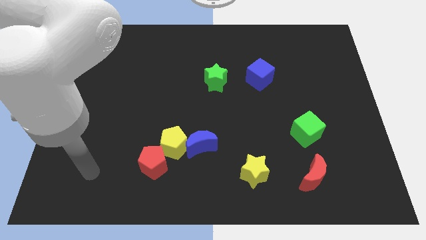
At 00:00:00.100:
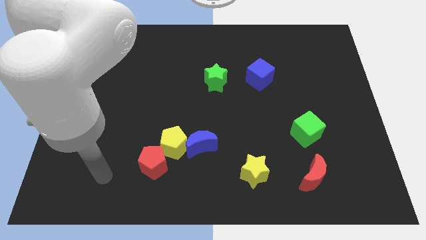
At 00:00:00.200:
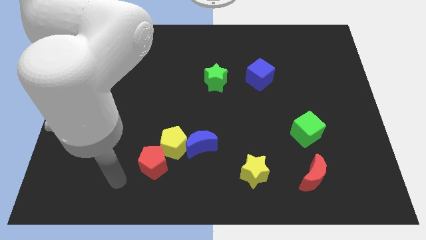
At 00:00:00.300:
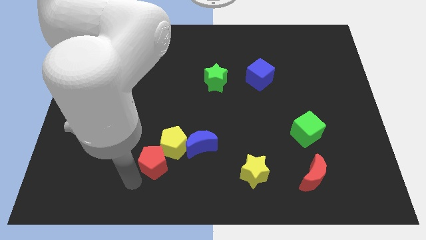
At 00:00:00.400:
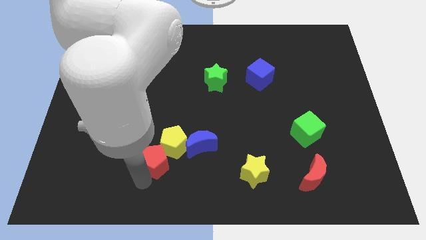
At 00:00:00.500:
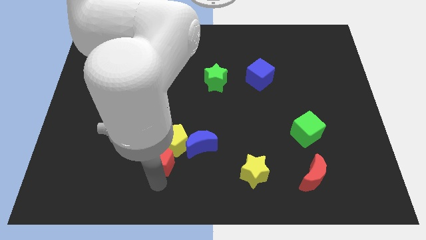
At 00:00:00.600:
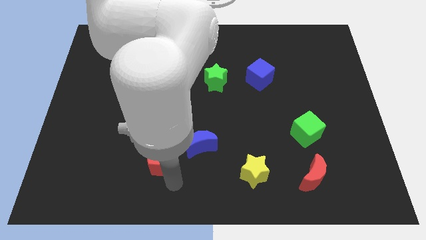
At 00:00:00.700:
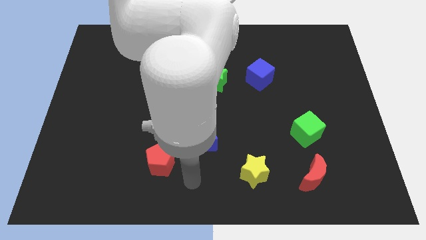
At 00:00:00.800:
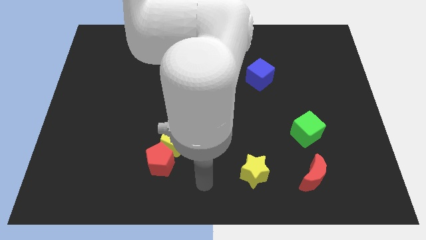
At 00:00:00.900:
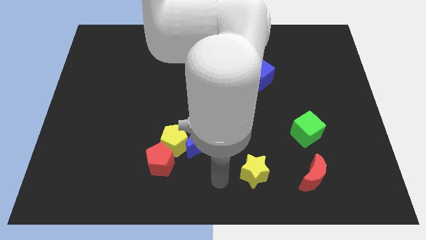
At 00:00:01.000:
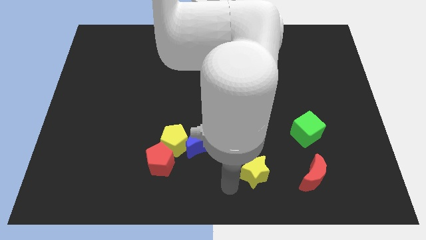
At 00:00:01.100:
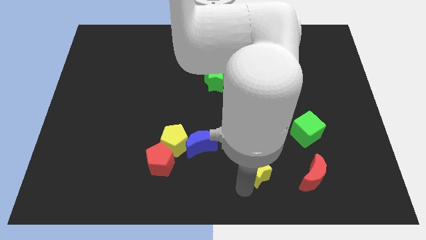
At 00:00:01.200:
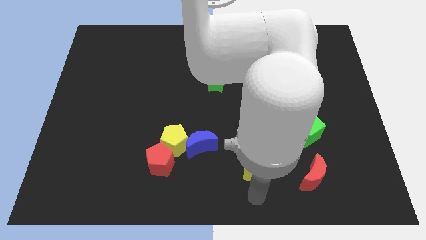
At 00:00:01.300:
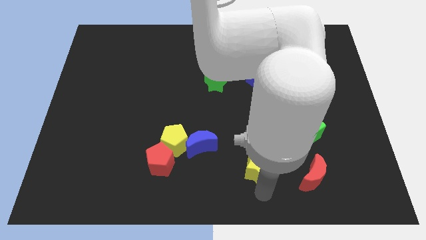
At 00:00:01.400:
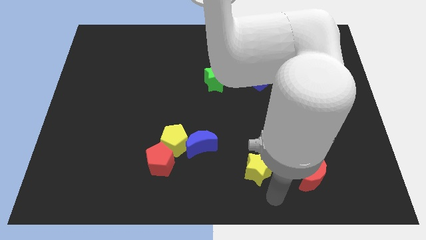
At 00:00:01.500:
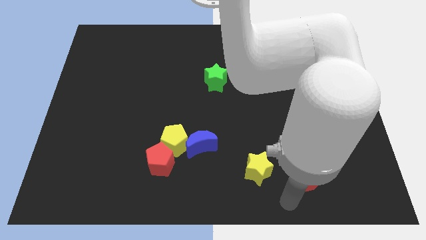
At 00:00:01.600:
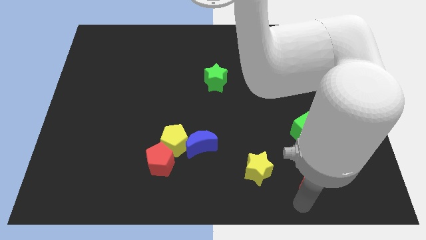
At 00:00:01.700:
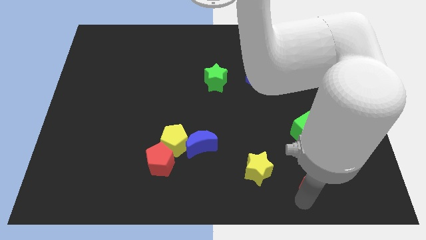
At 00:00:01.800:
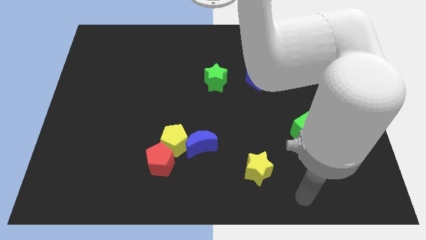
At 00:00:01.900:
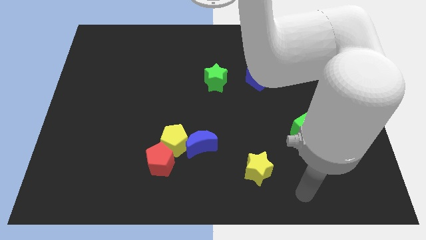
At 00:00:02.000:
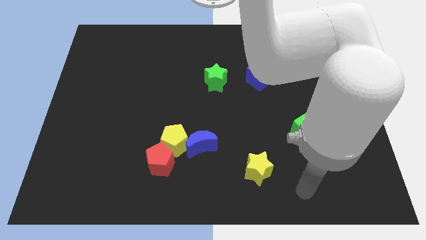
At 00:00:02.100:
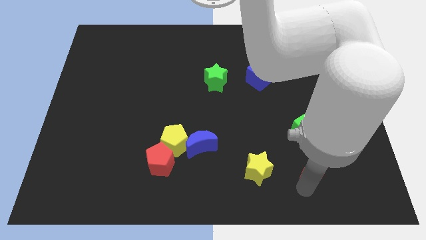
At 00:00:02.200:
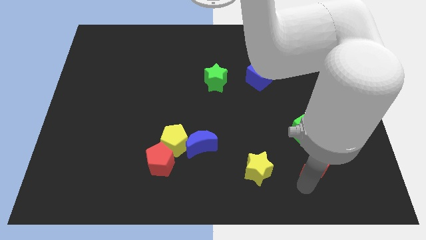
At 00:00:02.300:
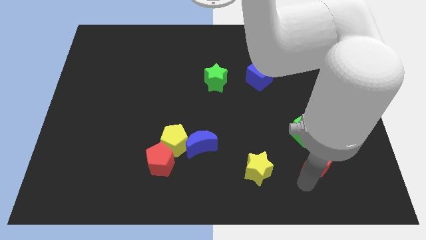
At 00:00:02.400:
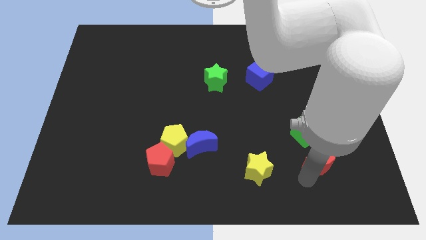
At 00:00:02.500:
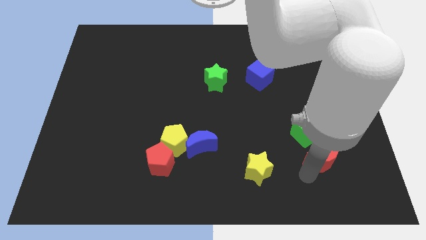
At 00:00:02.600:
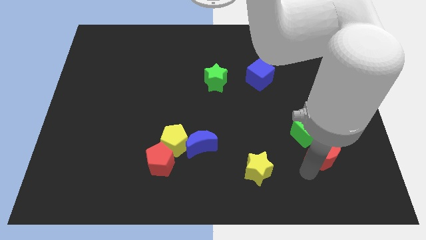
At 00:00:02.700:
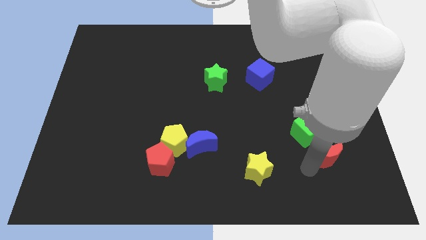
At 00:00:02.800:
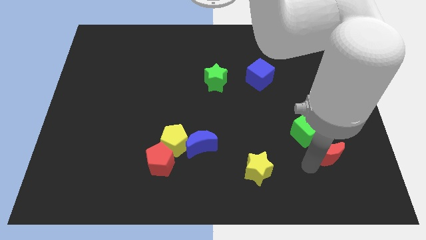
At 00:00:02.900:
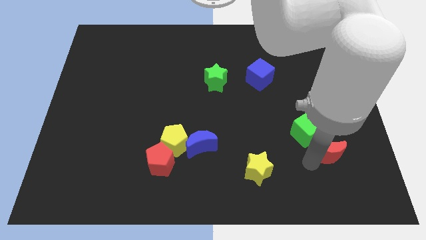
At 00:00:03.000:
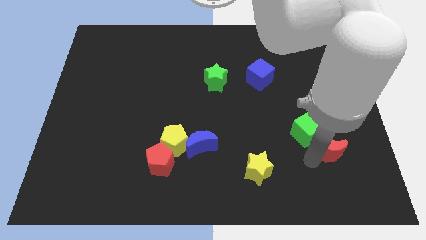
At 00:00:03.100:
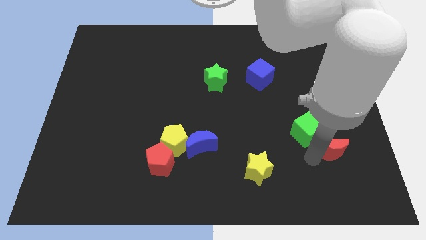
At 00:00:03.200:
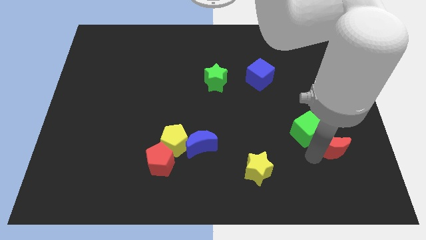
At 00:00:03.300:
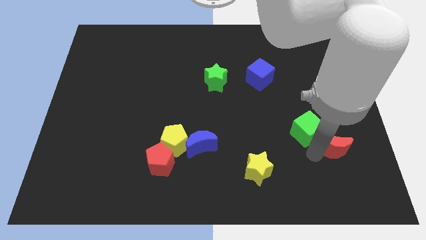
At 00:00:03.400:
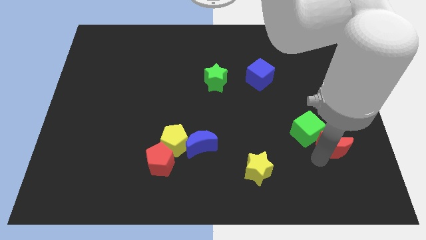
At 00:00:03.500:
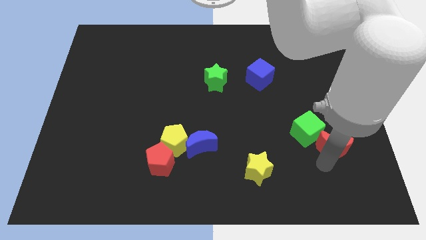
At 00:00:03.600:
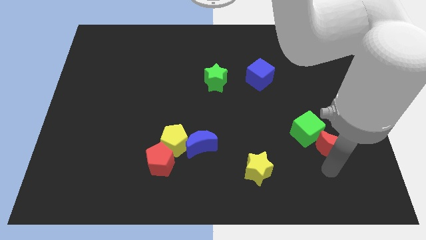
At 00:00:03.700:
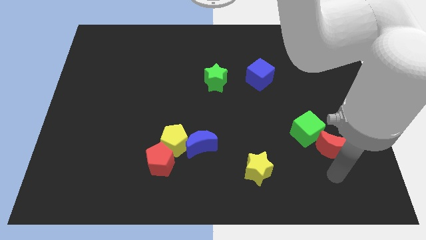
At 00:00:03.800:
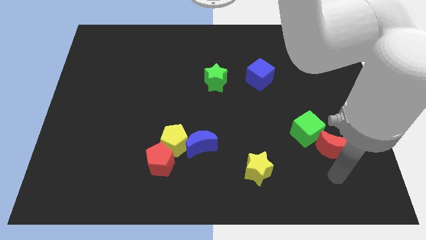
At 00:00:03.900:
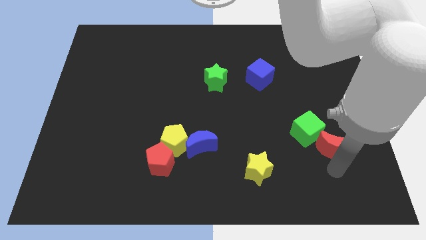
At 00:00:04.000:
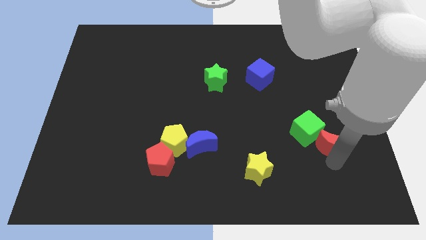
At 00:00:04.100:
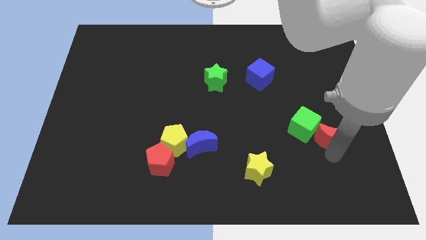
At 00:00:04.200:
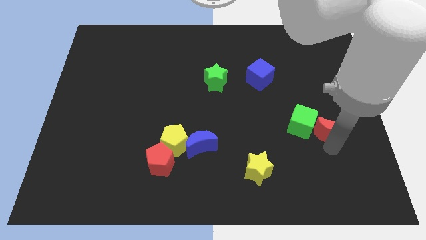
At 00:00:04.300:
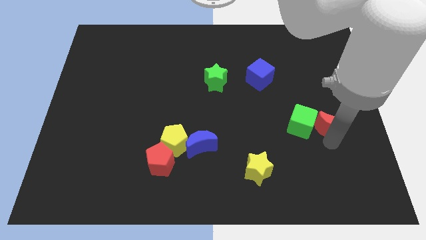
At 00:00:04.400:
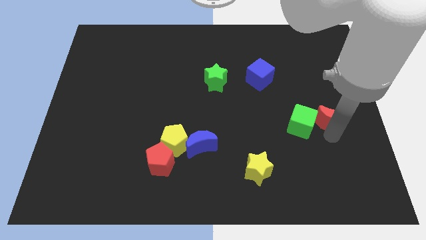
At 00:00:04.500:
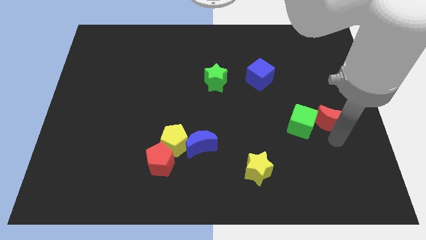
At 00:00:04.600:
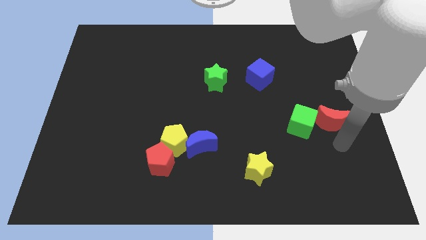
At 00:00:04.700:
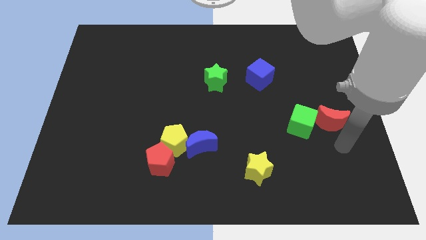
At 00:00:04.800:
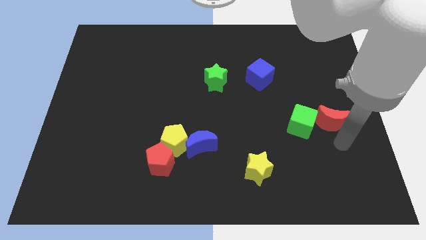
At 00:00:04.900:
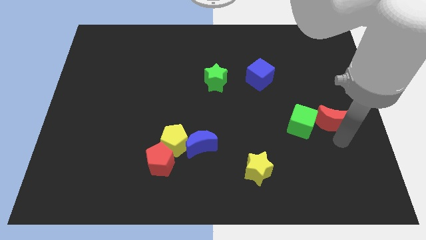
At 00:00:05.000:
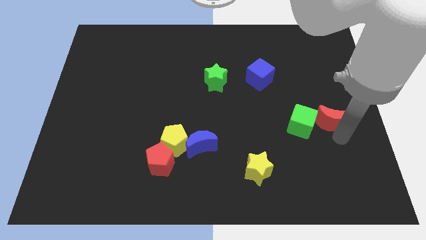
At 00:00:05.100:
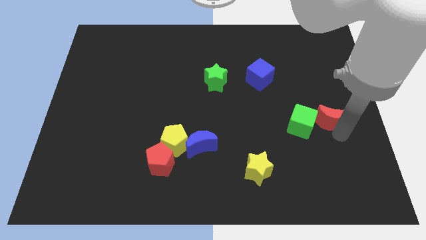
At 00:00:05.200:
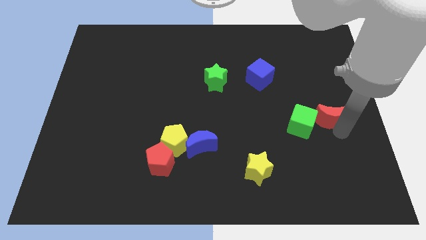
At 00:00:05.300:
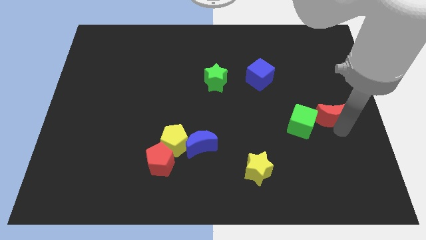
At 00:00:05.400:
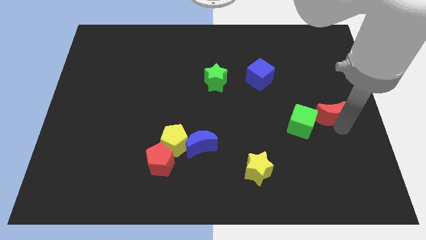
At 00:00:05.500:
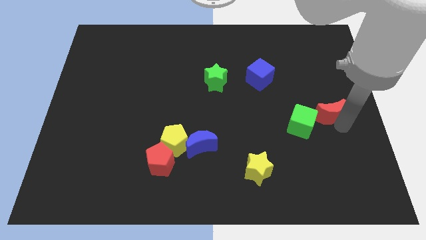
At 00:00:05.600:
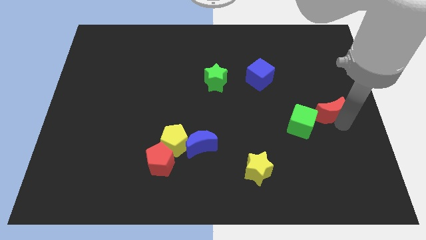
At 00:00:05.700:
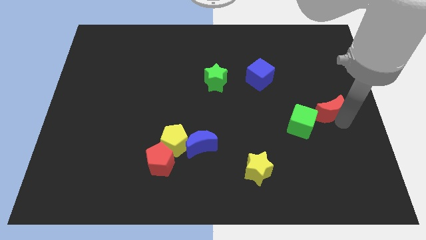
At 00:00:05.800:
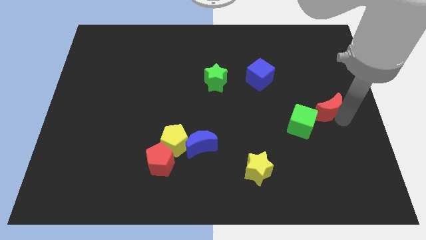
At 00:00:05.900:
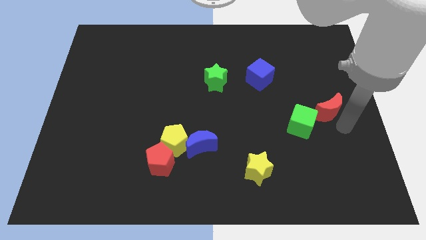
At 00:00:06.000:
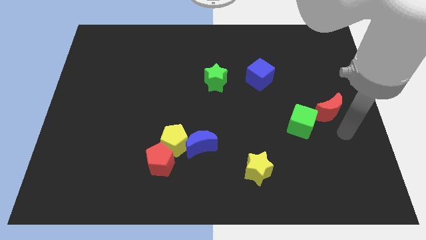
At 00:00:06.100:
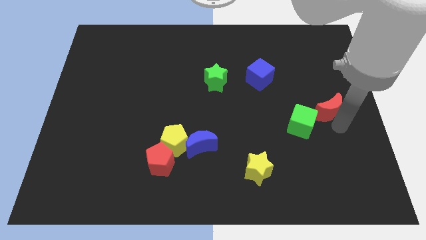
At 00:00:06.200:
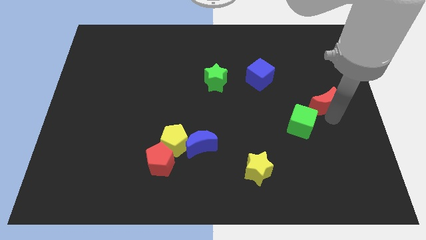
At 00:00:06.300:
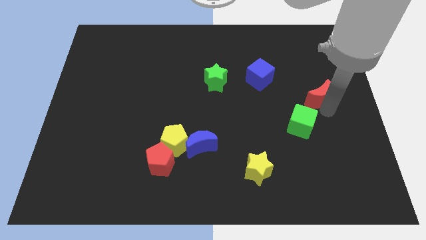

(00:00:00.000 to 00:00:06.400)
push the red moon up

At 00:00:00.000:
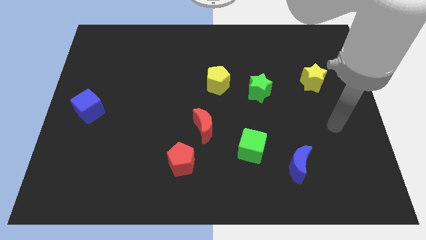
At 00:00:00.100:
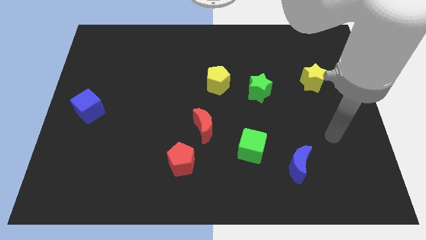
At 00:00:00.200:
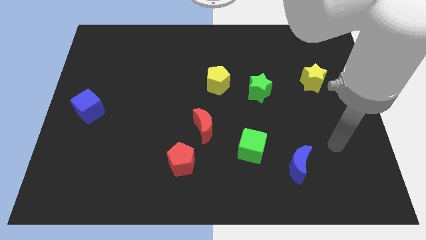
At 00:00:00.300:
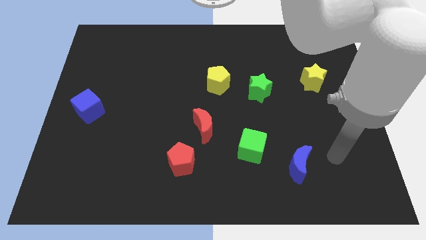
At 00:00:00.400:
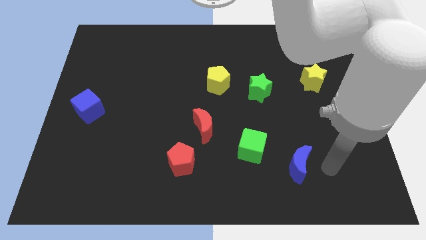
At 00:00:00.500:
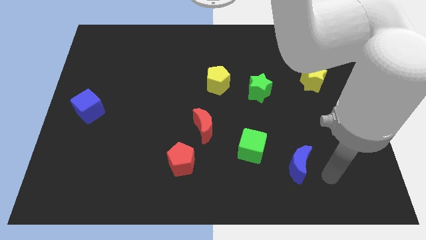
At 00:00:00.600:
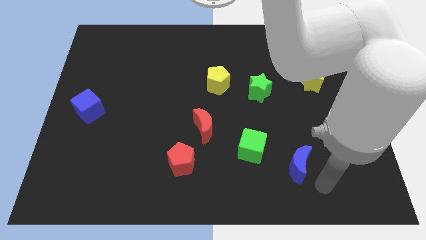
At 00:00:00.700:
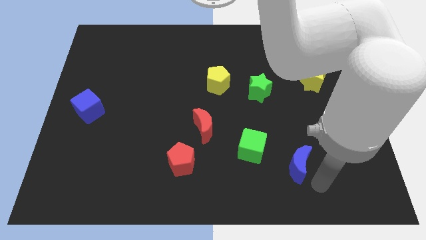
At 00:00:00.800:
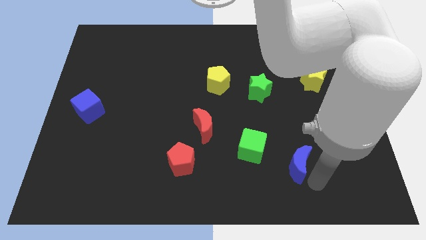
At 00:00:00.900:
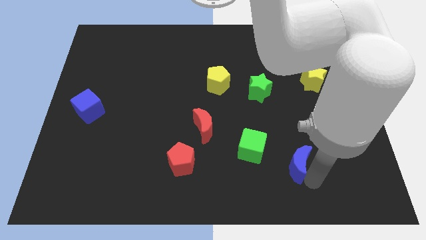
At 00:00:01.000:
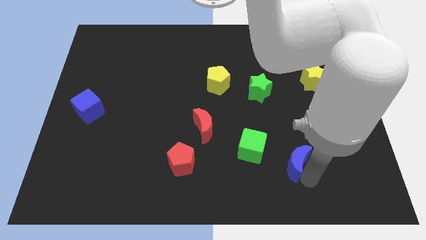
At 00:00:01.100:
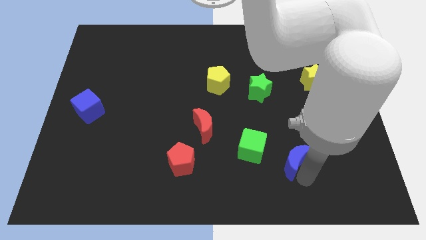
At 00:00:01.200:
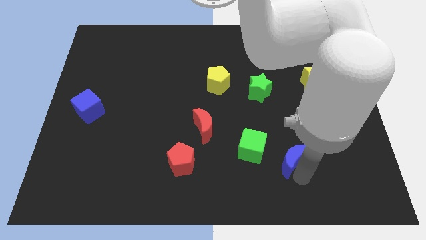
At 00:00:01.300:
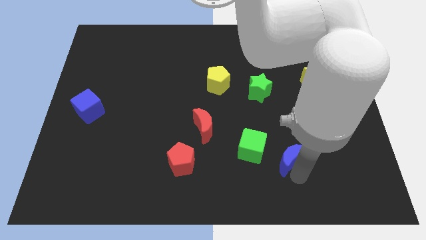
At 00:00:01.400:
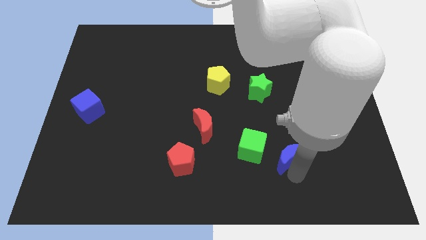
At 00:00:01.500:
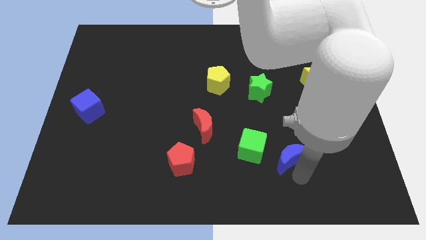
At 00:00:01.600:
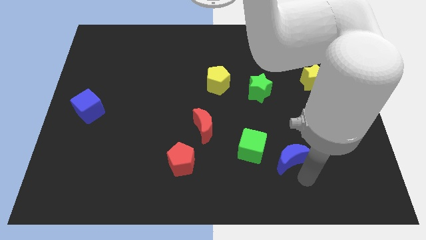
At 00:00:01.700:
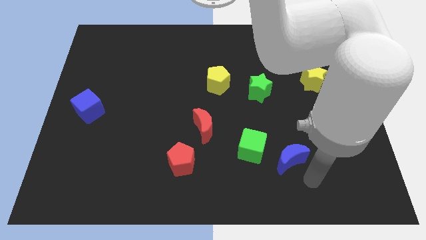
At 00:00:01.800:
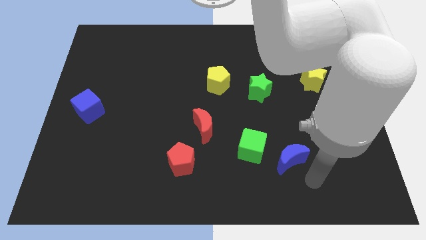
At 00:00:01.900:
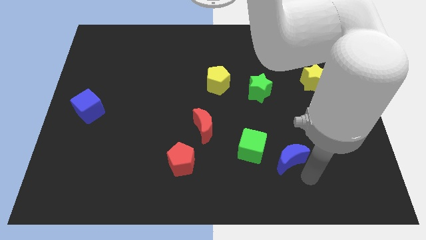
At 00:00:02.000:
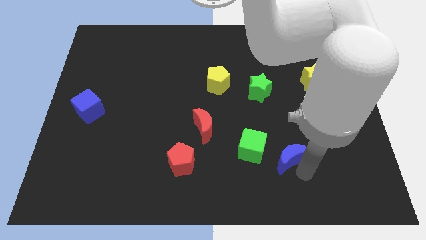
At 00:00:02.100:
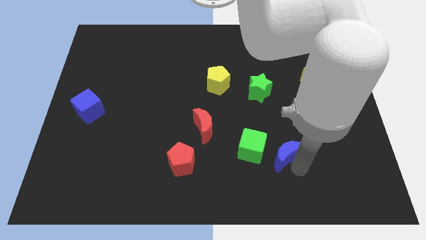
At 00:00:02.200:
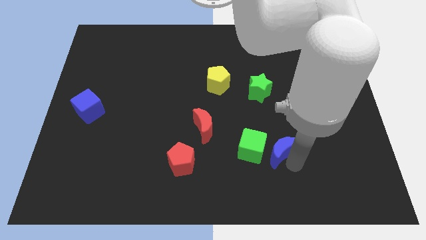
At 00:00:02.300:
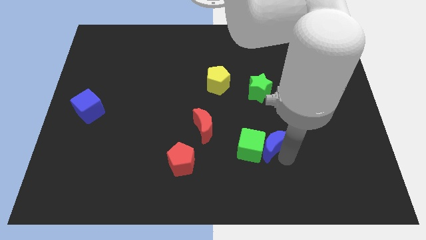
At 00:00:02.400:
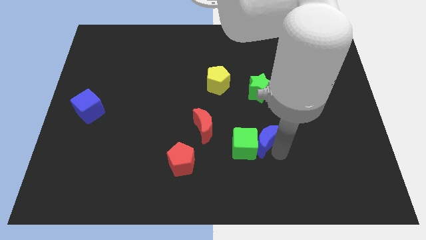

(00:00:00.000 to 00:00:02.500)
slightly slide the blue moon upwards and left diagonally
